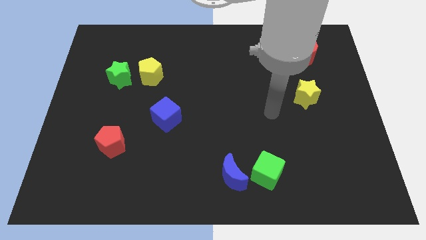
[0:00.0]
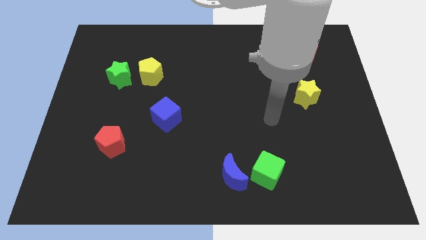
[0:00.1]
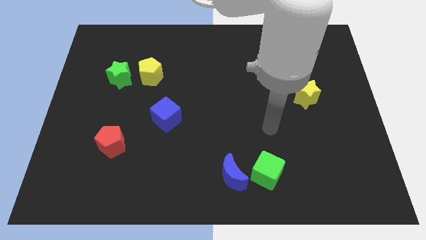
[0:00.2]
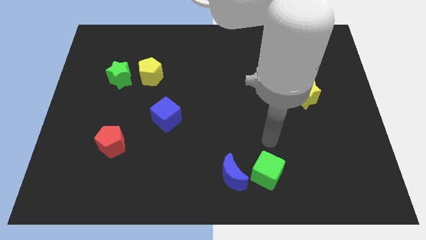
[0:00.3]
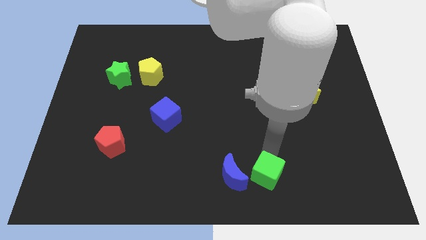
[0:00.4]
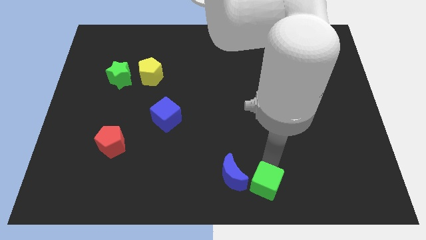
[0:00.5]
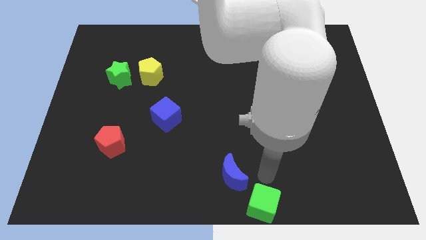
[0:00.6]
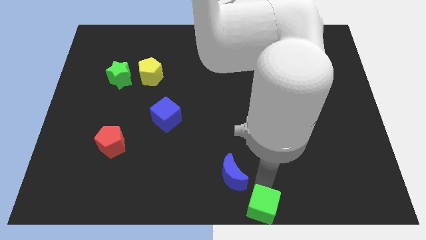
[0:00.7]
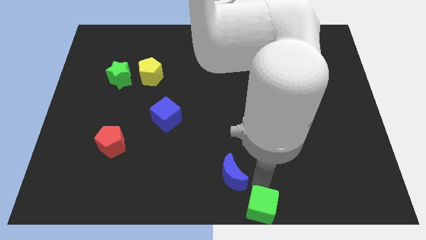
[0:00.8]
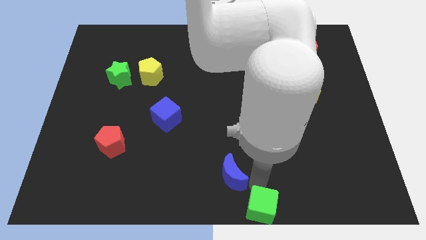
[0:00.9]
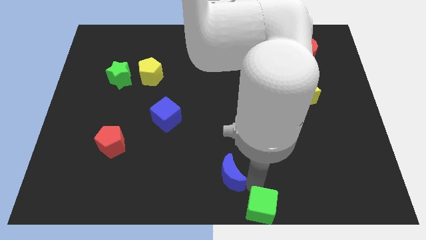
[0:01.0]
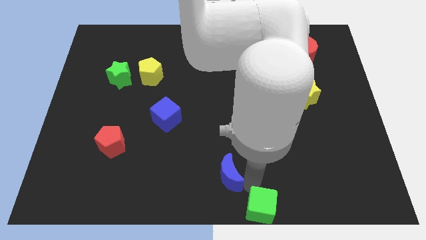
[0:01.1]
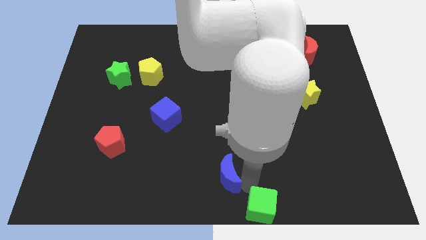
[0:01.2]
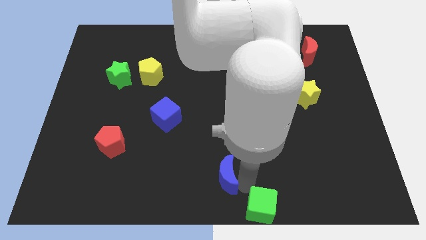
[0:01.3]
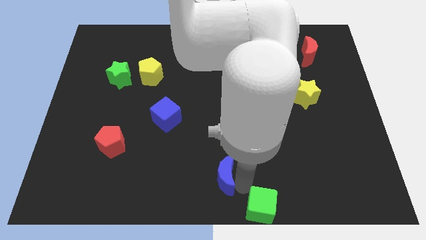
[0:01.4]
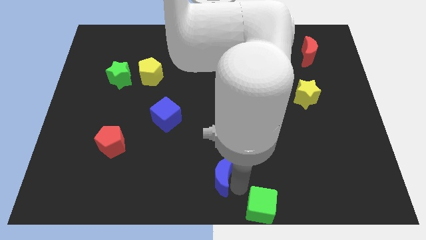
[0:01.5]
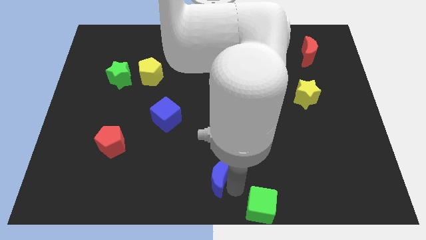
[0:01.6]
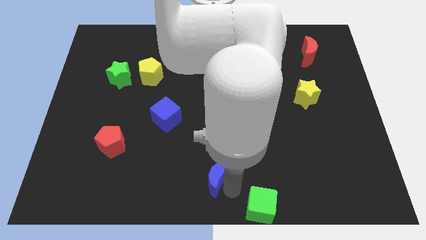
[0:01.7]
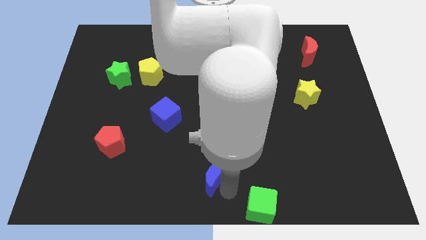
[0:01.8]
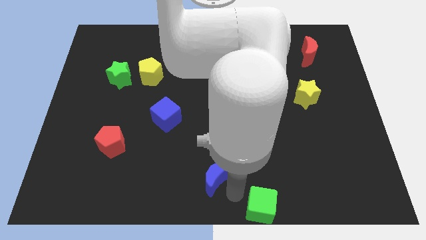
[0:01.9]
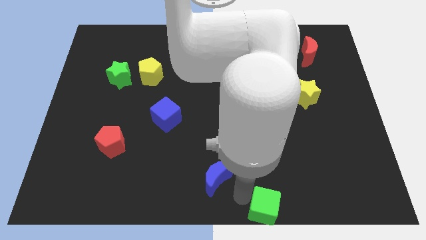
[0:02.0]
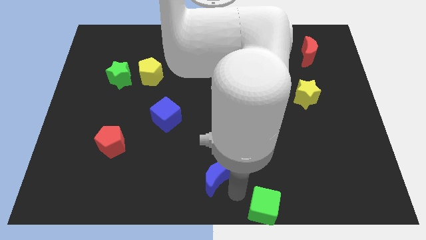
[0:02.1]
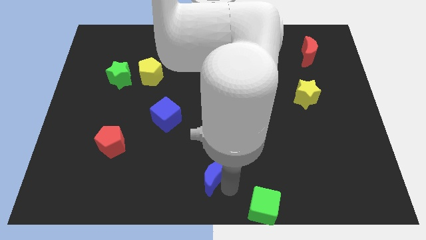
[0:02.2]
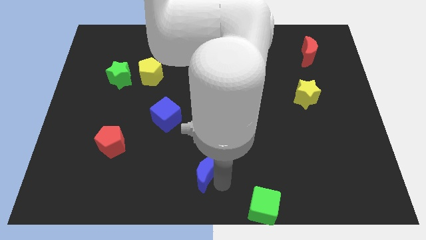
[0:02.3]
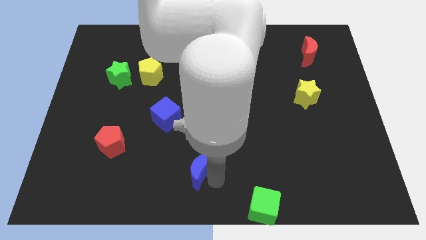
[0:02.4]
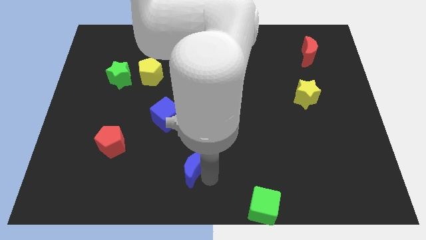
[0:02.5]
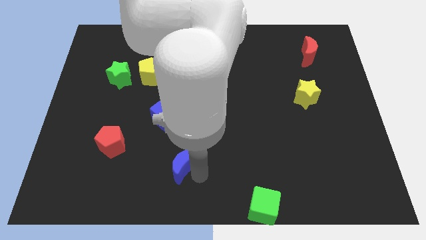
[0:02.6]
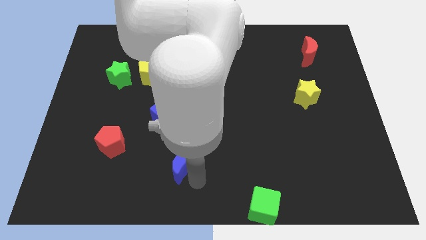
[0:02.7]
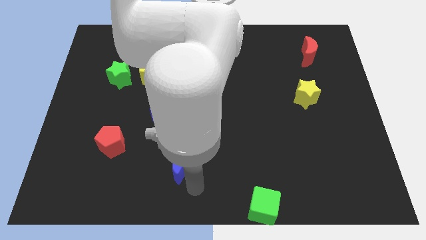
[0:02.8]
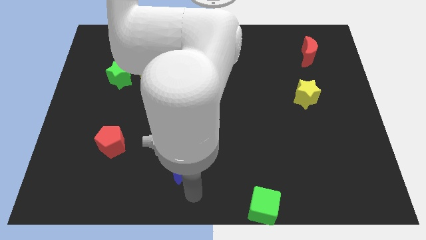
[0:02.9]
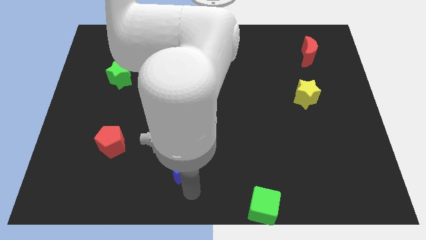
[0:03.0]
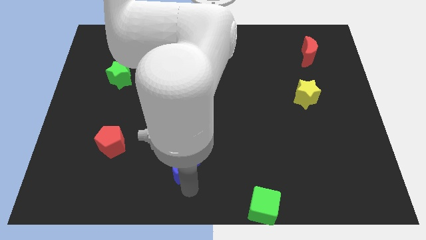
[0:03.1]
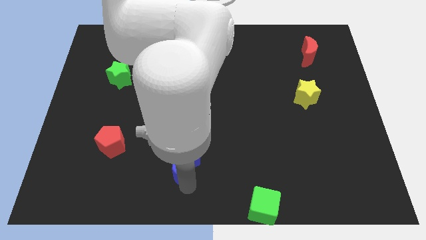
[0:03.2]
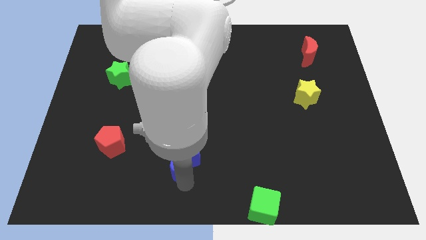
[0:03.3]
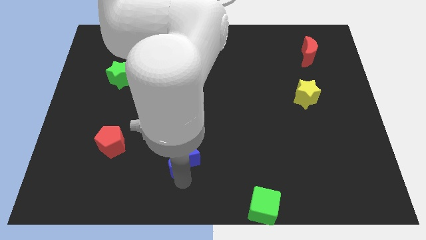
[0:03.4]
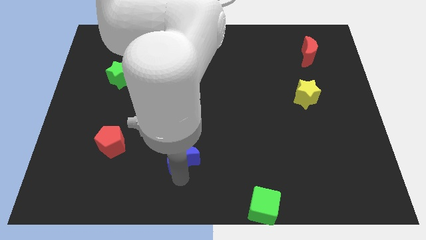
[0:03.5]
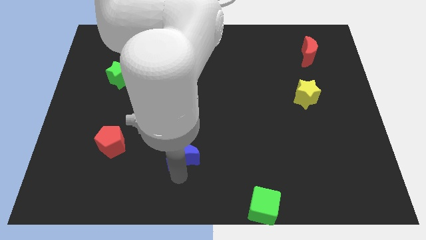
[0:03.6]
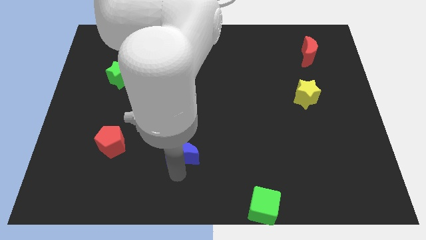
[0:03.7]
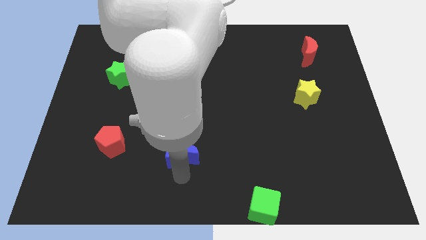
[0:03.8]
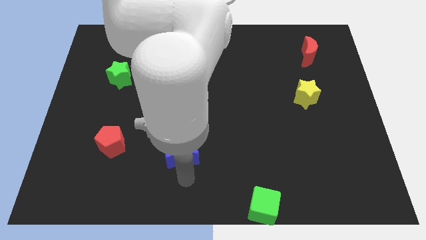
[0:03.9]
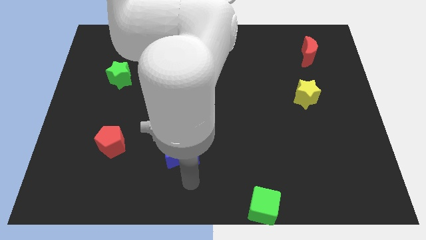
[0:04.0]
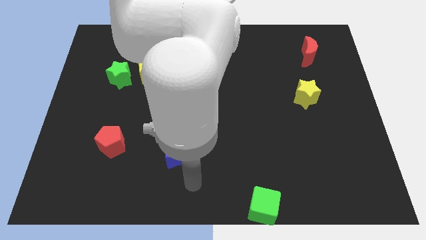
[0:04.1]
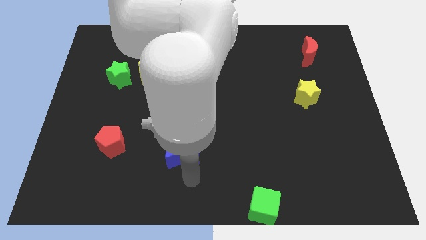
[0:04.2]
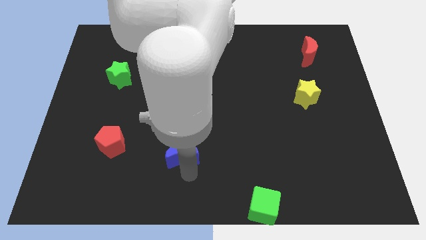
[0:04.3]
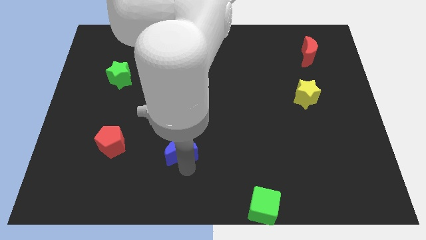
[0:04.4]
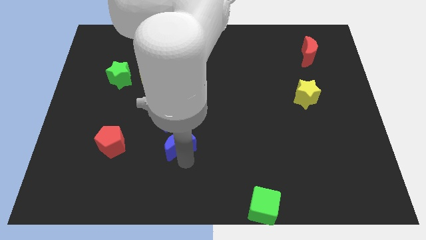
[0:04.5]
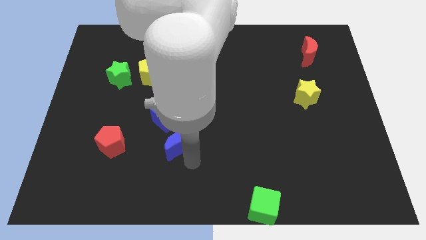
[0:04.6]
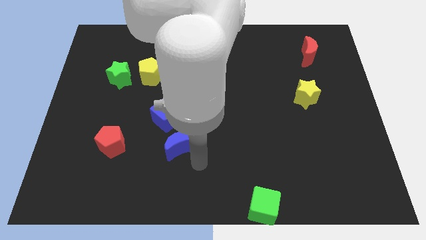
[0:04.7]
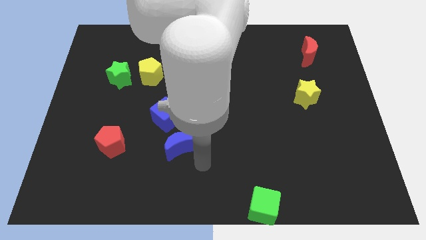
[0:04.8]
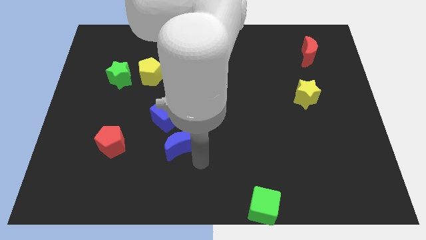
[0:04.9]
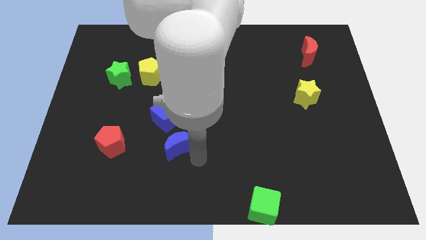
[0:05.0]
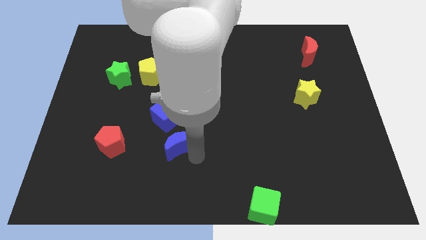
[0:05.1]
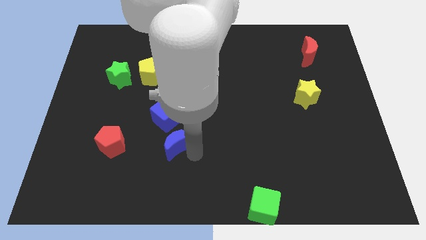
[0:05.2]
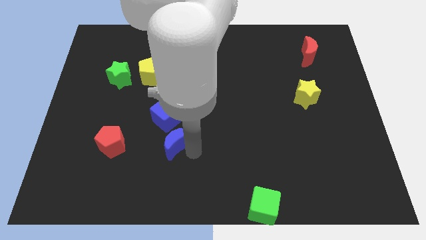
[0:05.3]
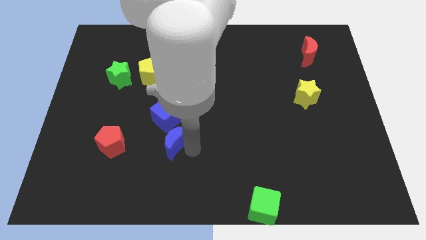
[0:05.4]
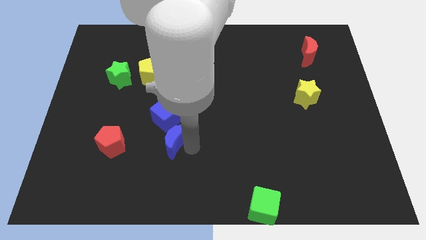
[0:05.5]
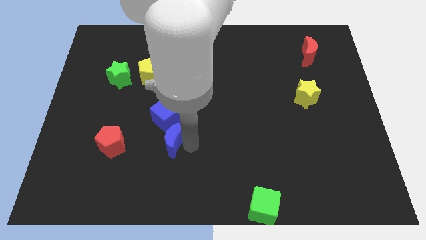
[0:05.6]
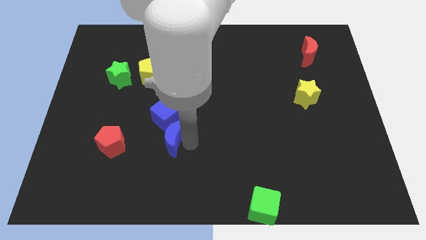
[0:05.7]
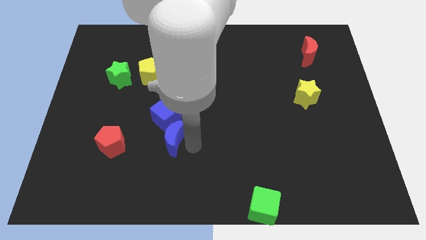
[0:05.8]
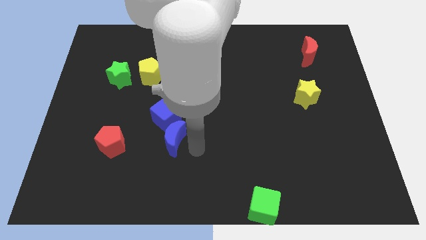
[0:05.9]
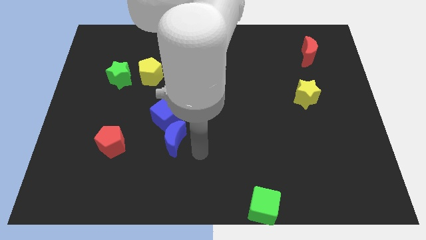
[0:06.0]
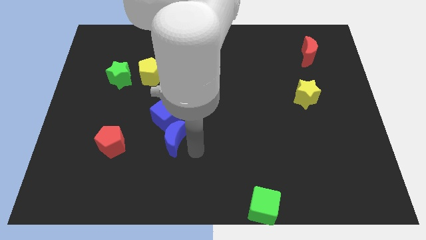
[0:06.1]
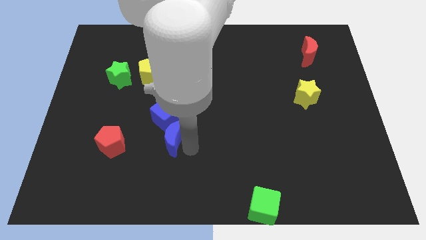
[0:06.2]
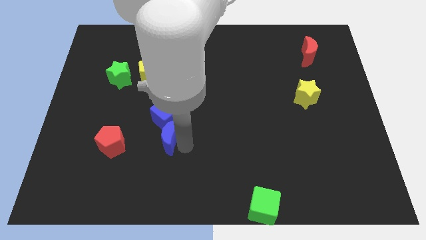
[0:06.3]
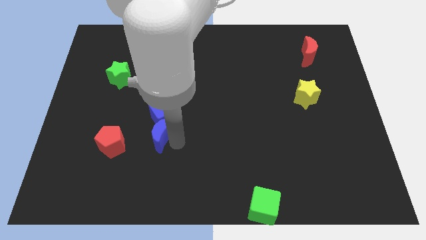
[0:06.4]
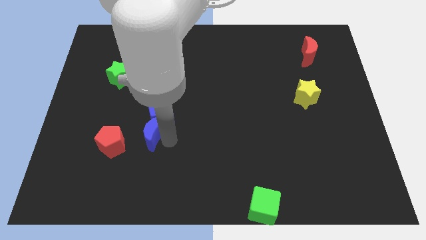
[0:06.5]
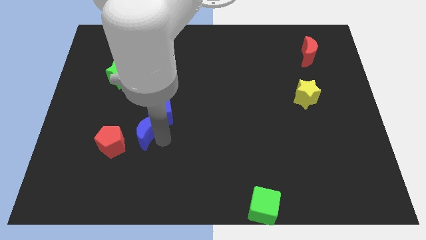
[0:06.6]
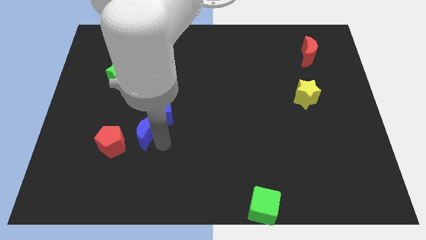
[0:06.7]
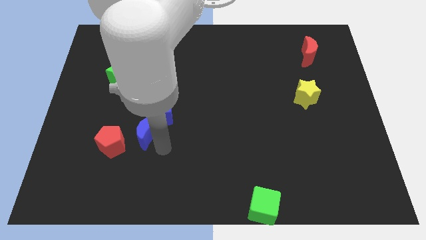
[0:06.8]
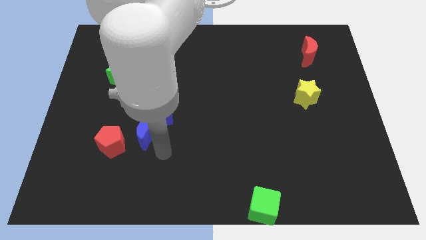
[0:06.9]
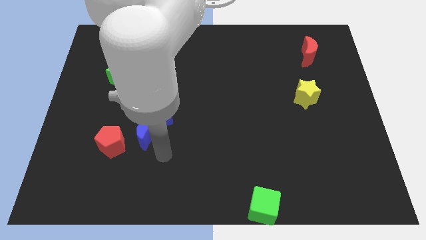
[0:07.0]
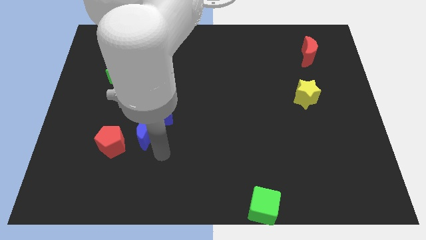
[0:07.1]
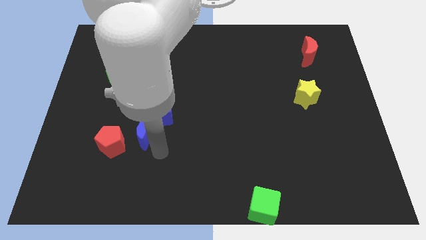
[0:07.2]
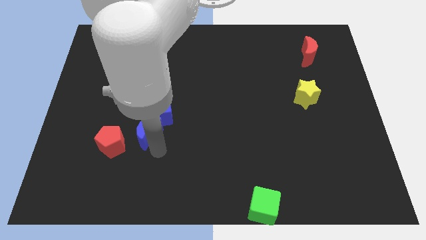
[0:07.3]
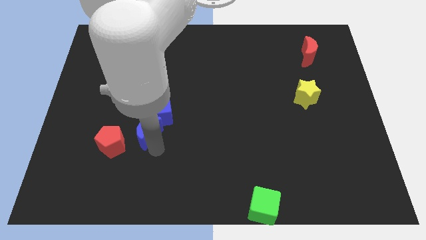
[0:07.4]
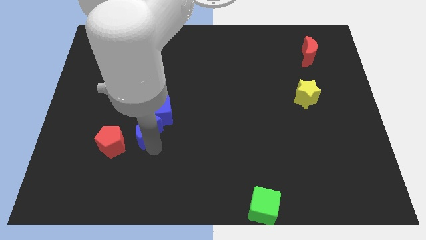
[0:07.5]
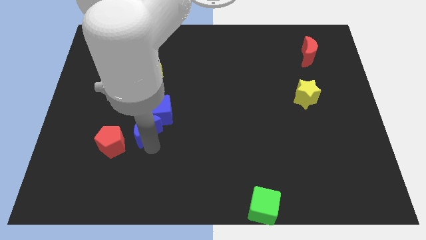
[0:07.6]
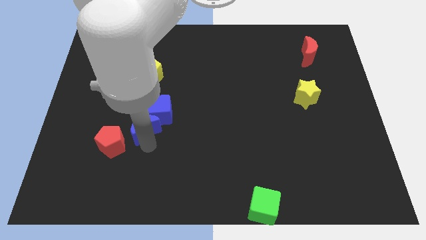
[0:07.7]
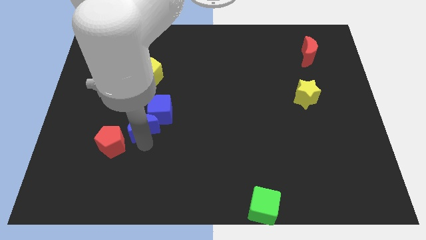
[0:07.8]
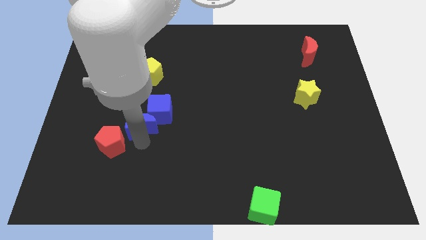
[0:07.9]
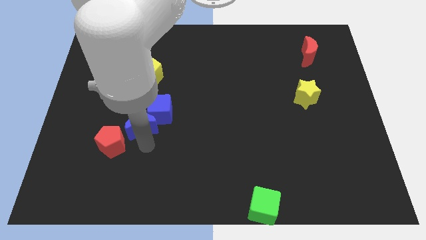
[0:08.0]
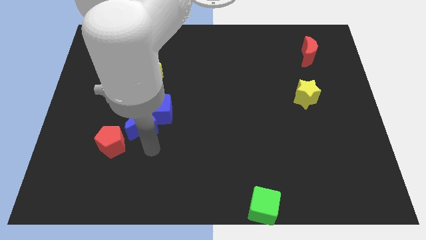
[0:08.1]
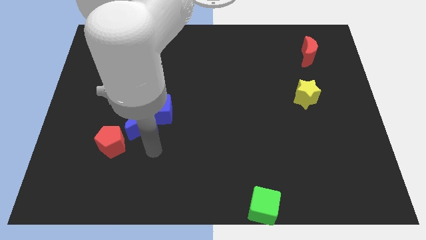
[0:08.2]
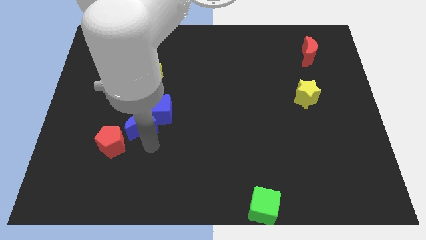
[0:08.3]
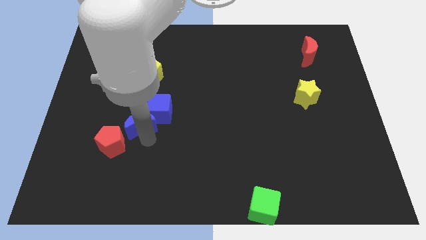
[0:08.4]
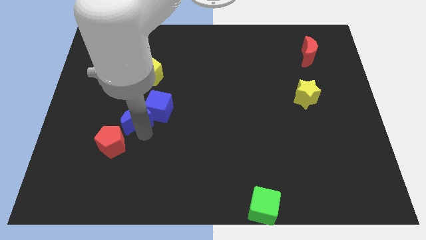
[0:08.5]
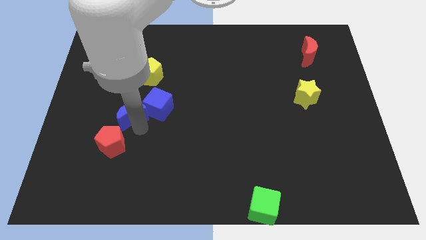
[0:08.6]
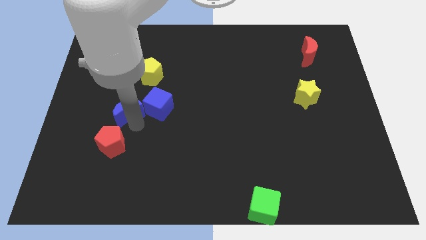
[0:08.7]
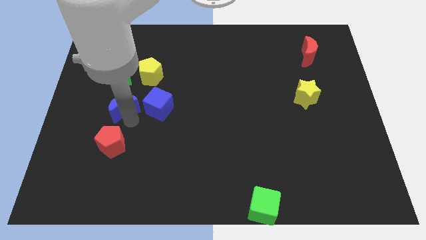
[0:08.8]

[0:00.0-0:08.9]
push the blue moon to the bottom left side of the yellow pentagon
